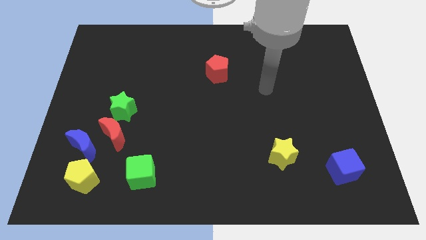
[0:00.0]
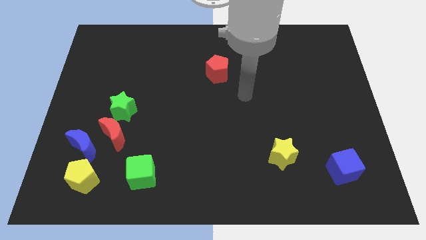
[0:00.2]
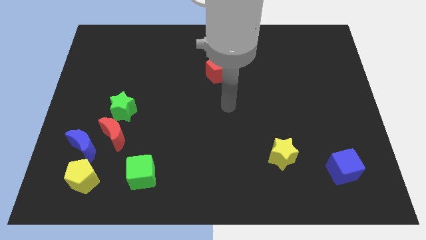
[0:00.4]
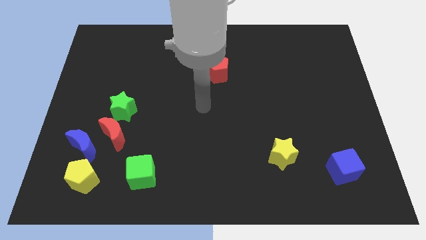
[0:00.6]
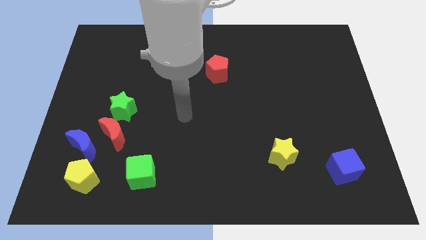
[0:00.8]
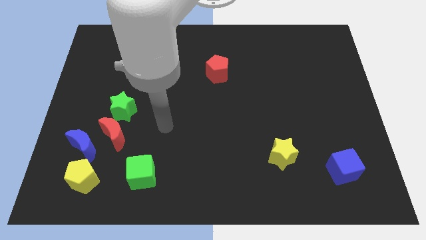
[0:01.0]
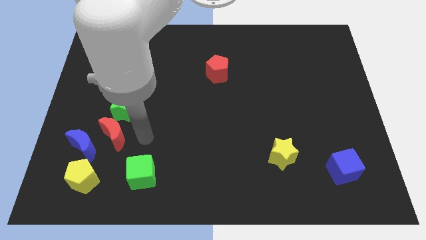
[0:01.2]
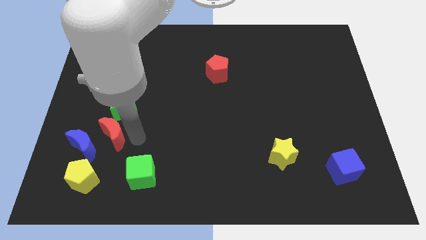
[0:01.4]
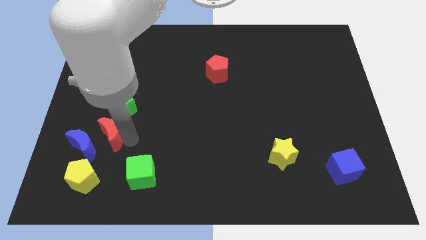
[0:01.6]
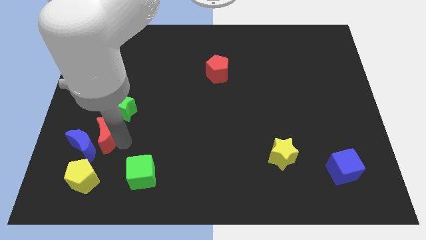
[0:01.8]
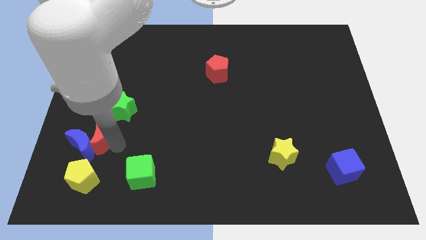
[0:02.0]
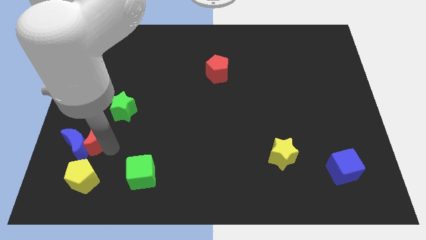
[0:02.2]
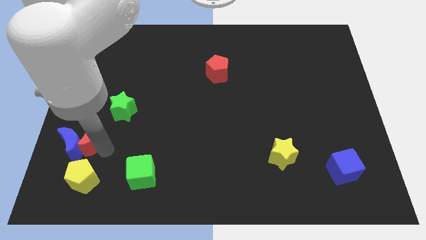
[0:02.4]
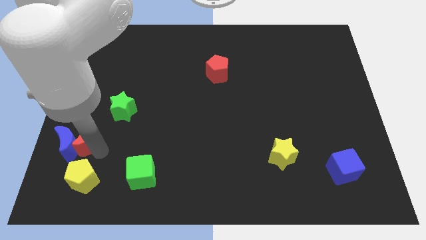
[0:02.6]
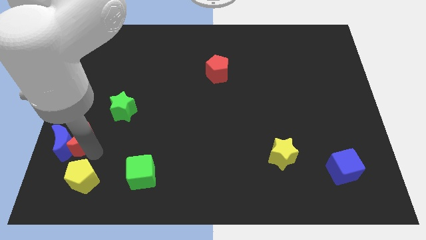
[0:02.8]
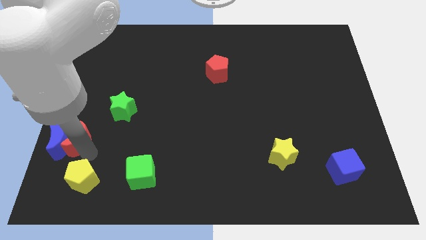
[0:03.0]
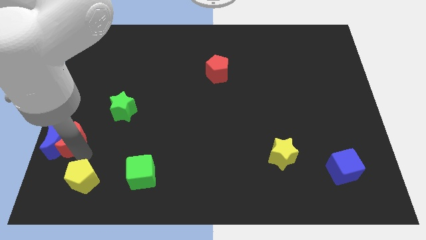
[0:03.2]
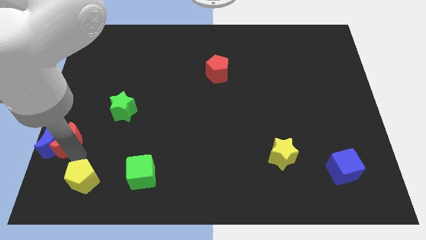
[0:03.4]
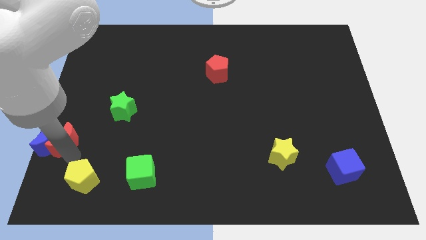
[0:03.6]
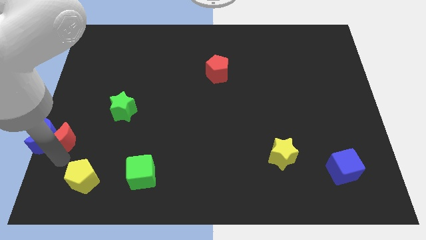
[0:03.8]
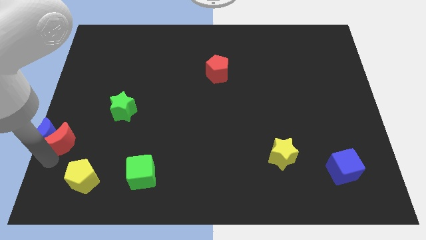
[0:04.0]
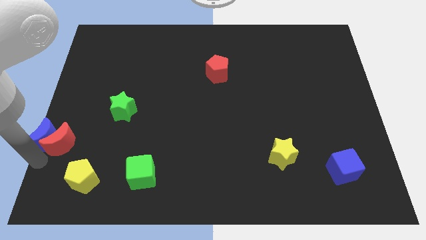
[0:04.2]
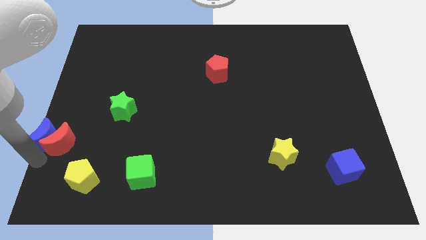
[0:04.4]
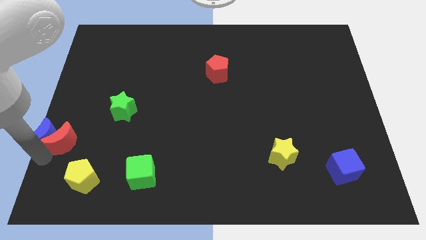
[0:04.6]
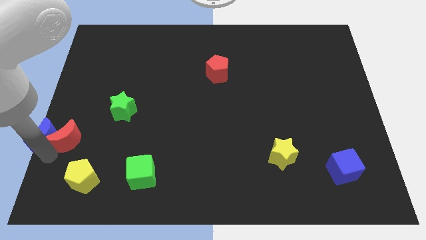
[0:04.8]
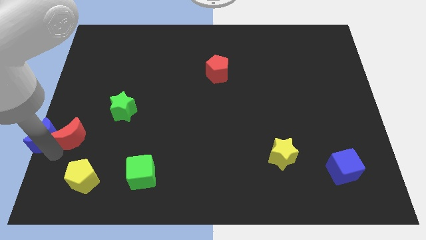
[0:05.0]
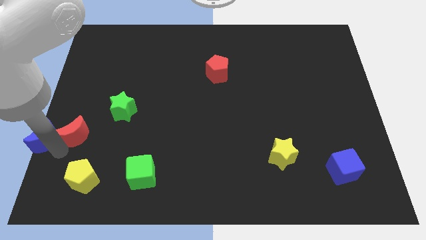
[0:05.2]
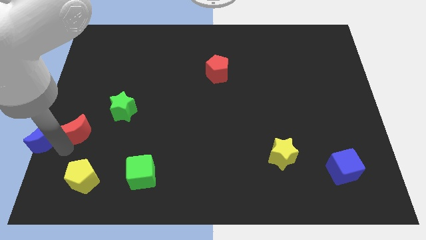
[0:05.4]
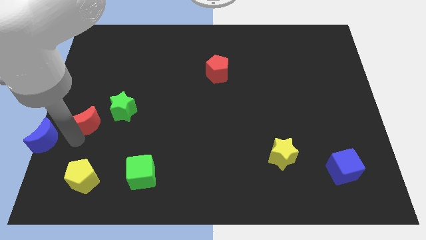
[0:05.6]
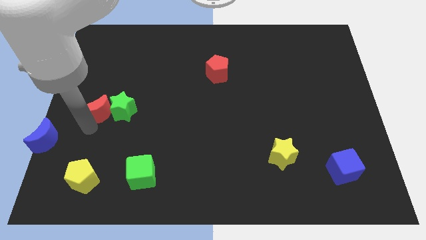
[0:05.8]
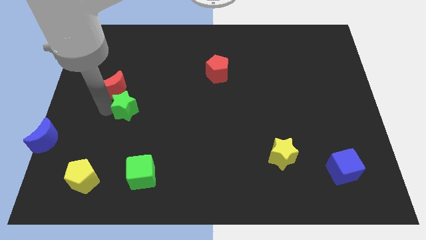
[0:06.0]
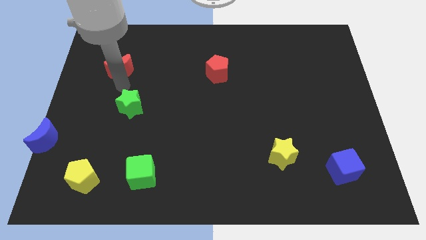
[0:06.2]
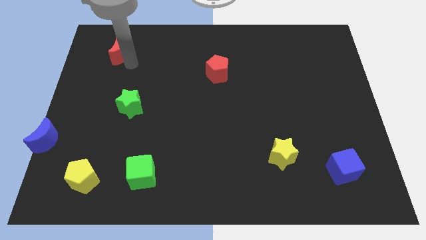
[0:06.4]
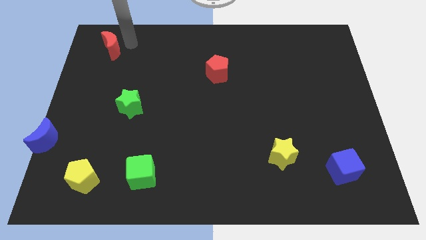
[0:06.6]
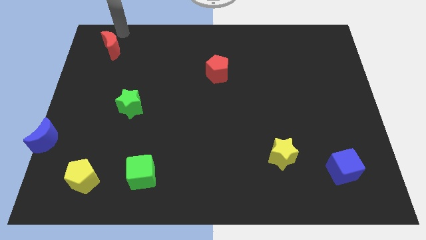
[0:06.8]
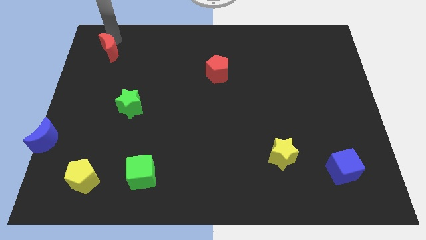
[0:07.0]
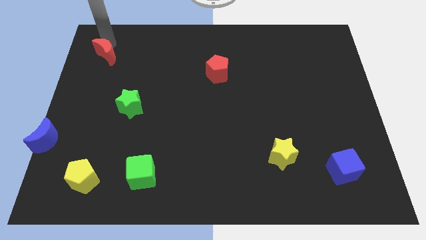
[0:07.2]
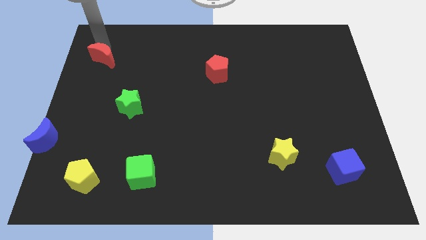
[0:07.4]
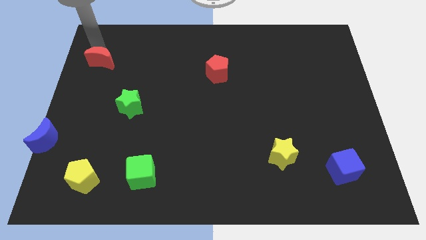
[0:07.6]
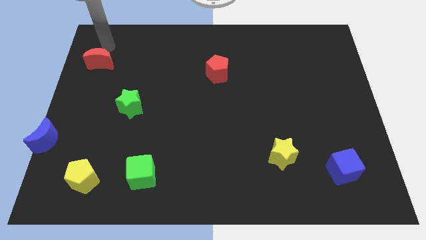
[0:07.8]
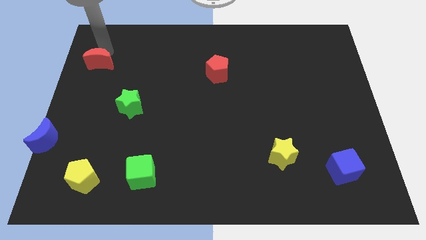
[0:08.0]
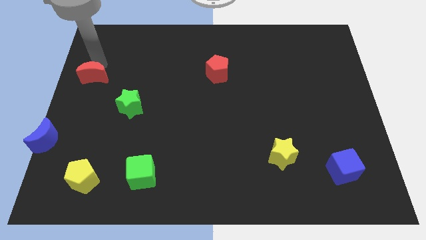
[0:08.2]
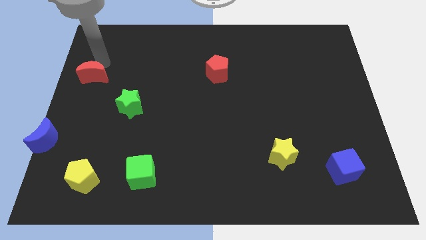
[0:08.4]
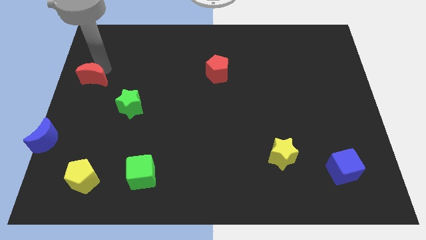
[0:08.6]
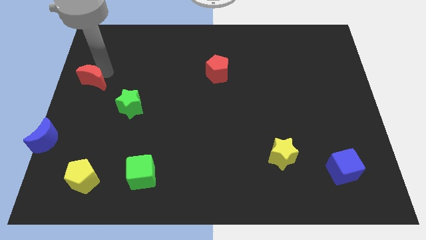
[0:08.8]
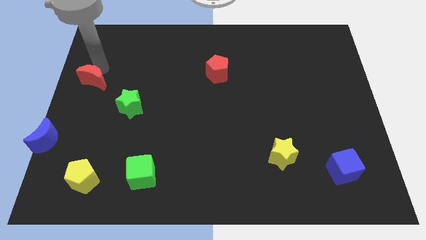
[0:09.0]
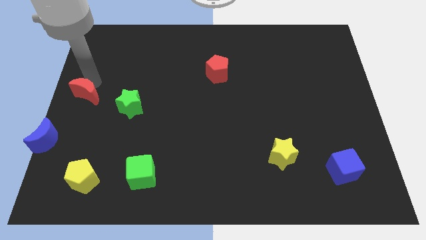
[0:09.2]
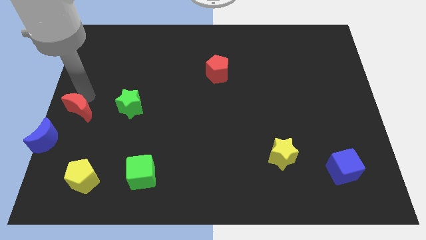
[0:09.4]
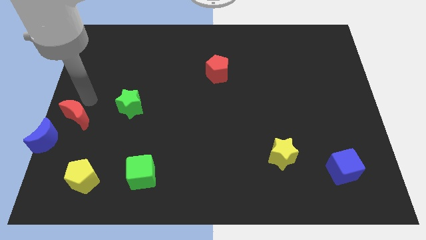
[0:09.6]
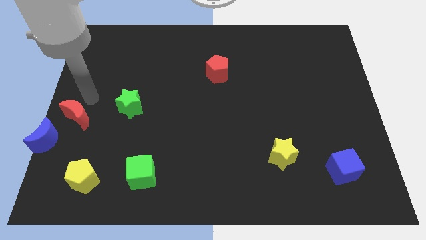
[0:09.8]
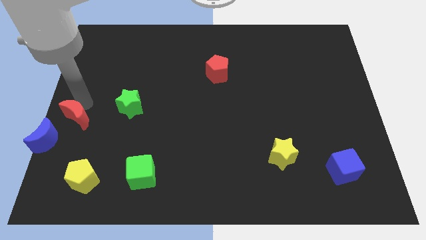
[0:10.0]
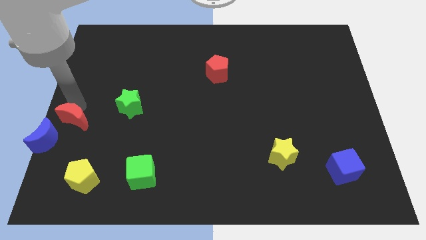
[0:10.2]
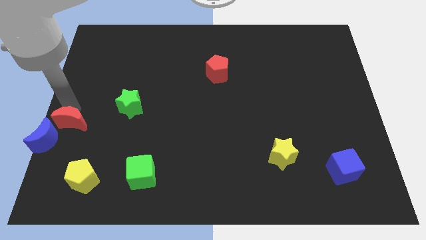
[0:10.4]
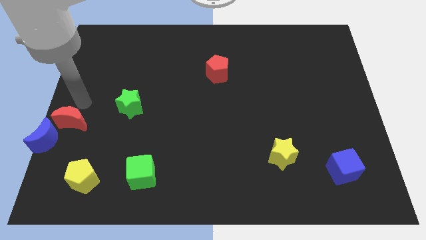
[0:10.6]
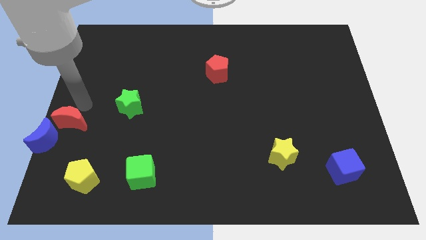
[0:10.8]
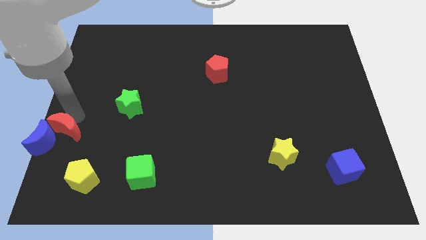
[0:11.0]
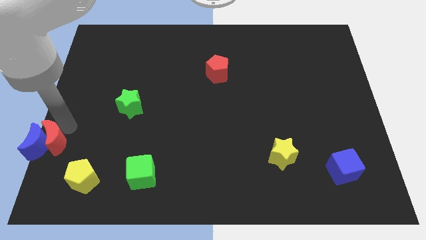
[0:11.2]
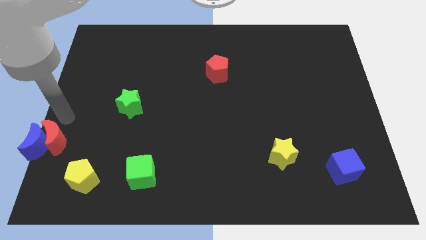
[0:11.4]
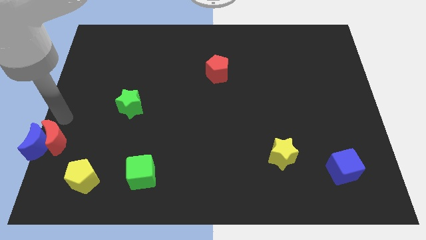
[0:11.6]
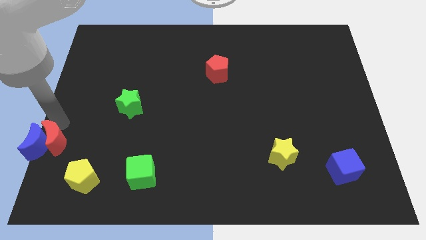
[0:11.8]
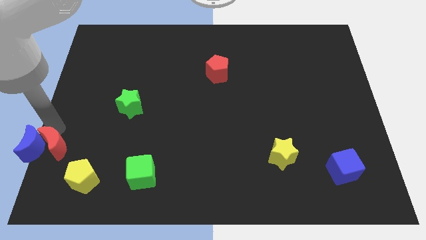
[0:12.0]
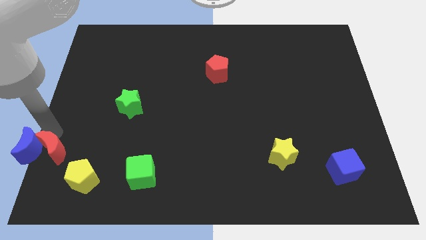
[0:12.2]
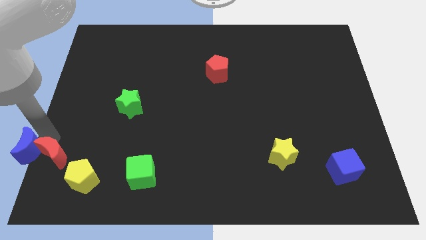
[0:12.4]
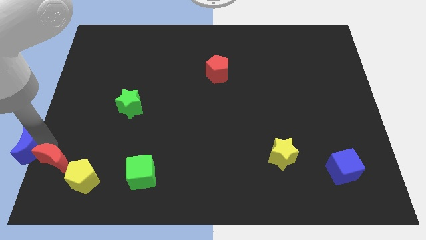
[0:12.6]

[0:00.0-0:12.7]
slide the red moon to the bottom left of the board

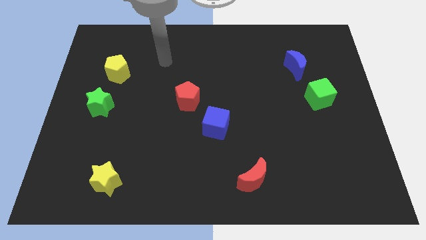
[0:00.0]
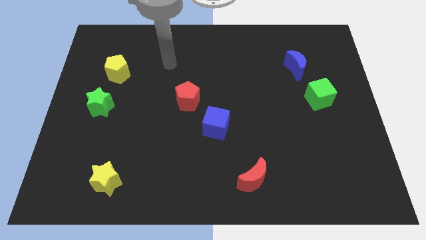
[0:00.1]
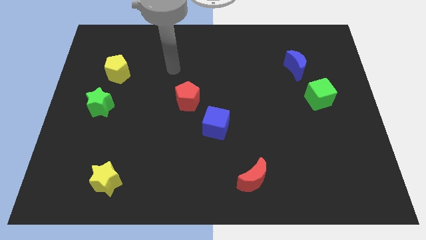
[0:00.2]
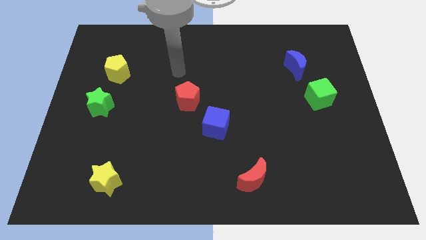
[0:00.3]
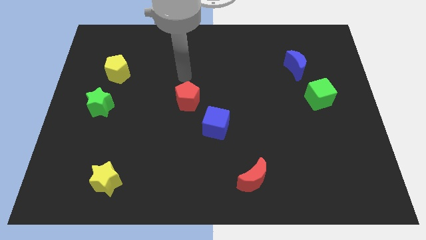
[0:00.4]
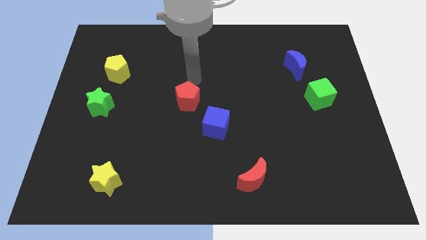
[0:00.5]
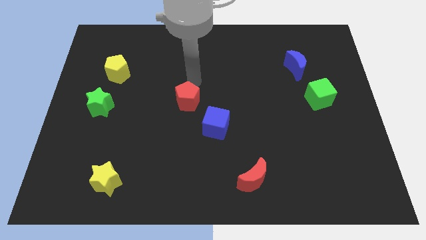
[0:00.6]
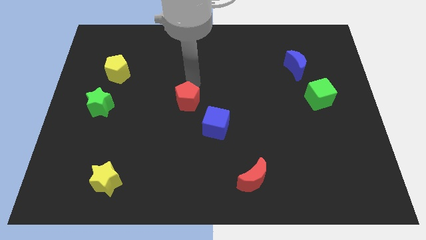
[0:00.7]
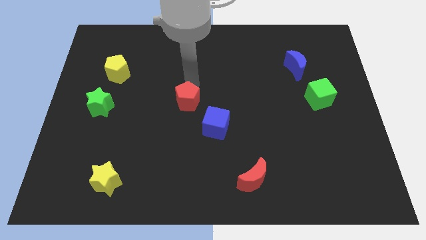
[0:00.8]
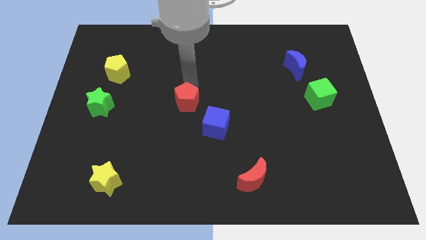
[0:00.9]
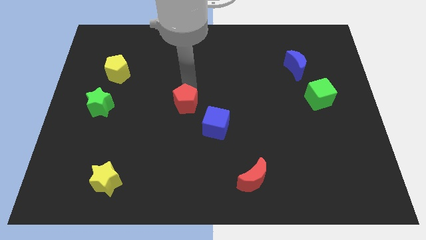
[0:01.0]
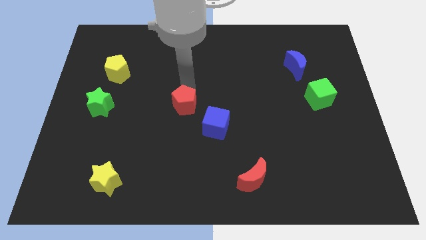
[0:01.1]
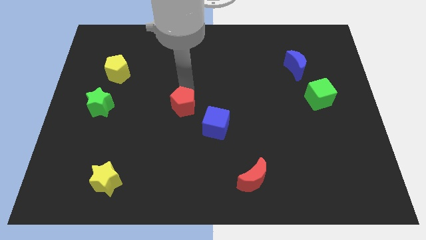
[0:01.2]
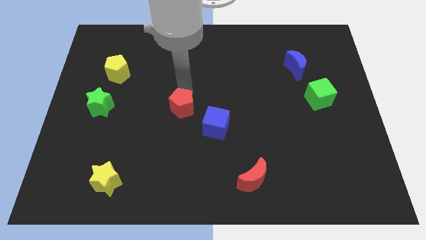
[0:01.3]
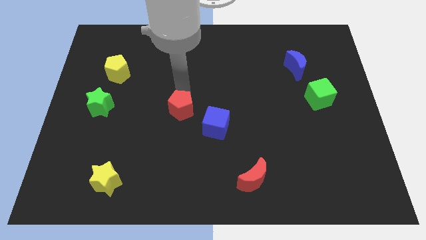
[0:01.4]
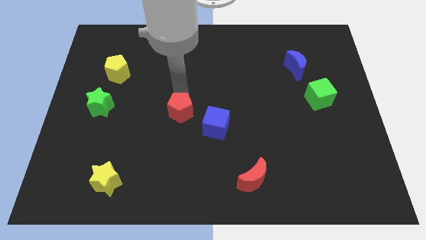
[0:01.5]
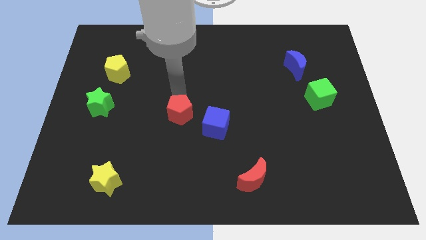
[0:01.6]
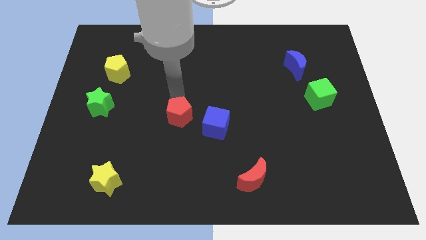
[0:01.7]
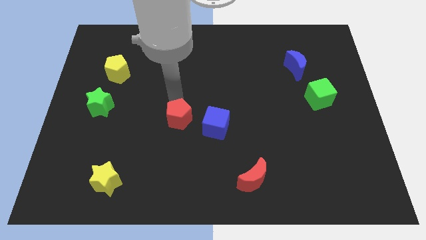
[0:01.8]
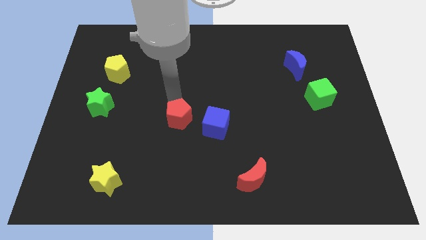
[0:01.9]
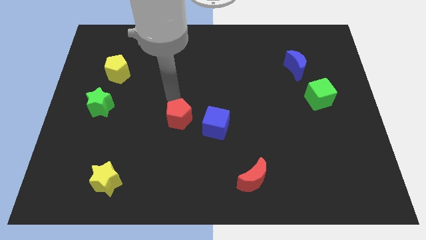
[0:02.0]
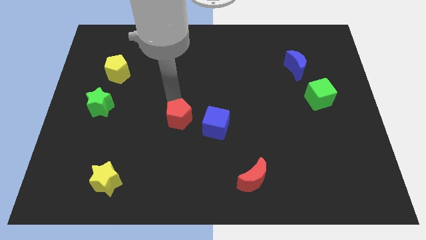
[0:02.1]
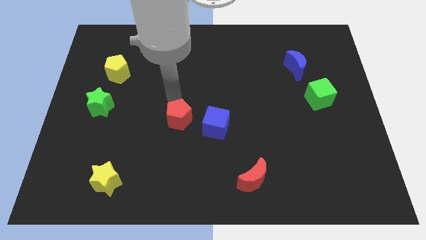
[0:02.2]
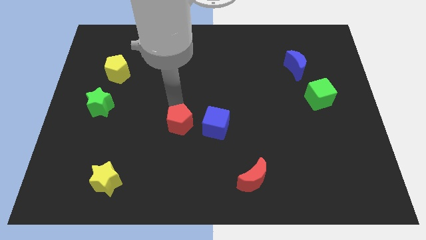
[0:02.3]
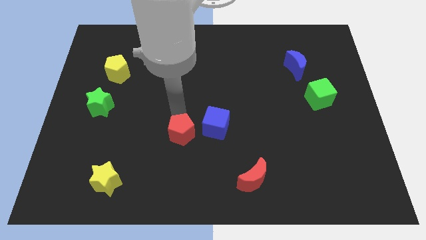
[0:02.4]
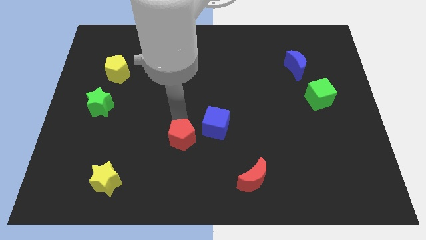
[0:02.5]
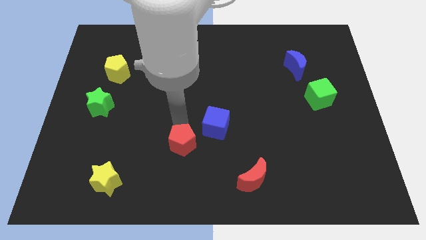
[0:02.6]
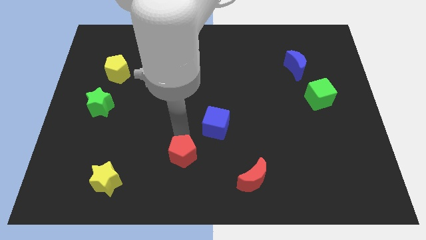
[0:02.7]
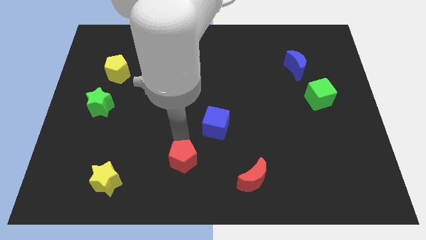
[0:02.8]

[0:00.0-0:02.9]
slide the red pentagon to the bottom side
